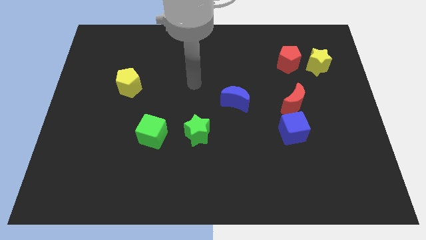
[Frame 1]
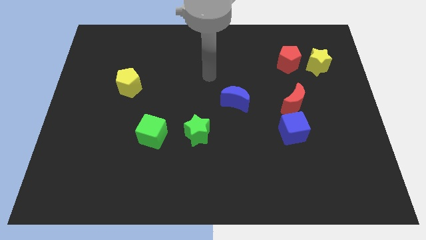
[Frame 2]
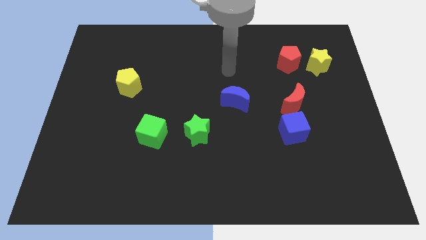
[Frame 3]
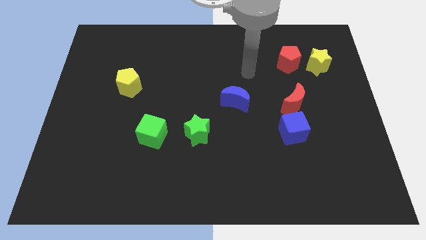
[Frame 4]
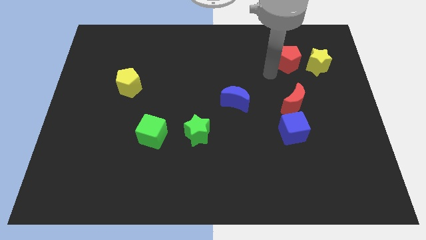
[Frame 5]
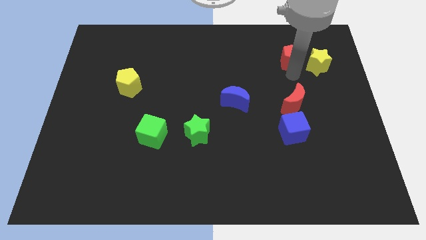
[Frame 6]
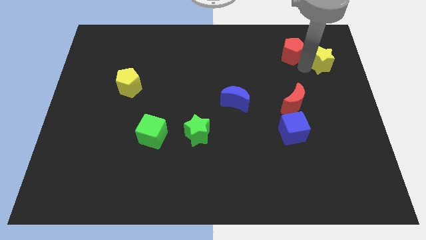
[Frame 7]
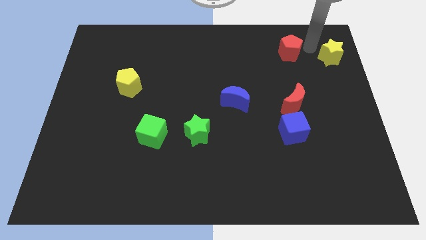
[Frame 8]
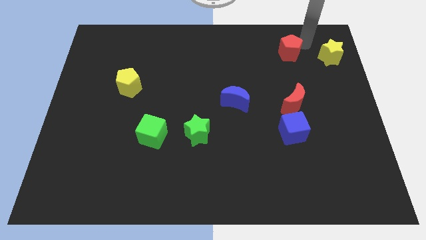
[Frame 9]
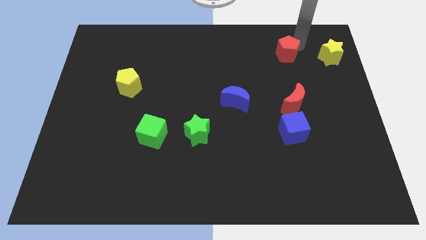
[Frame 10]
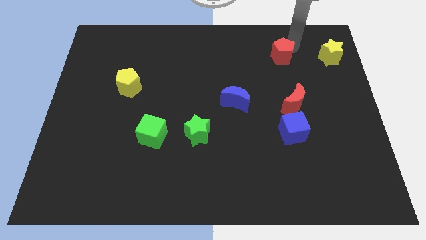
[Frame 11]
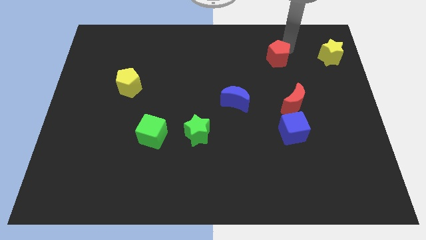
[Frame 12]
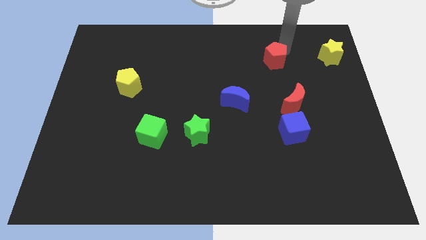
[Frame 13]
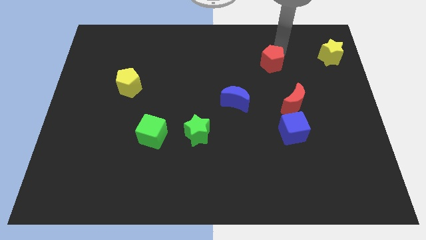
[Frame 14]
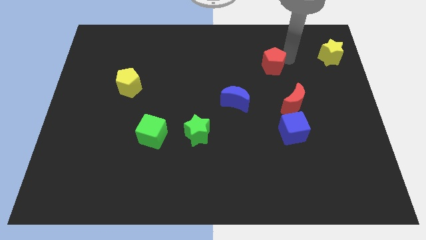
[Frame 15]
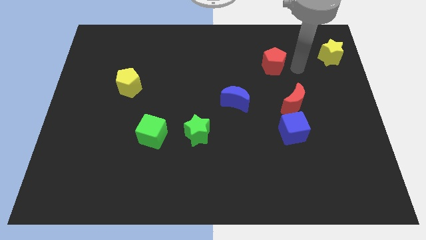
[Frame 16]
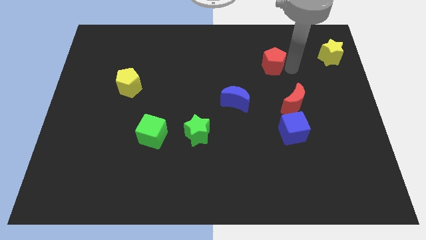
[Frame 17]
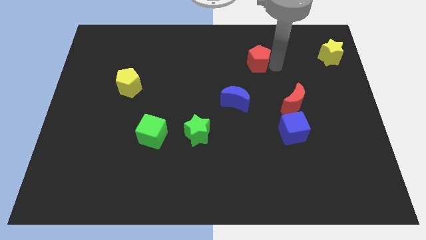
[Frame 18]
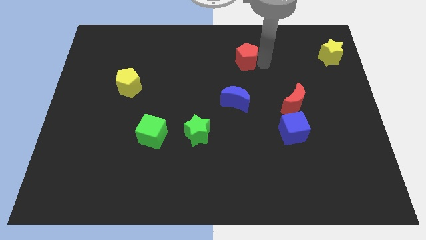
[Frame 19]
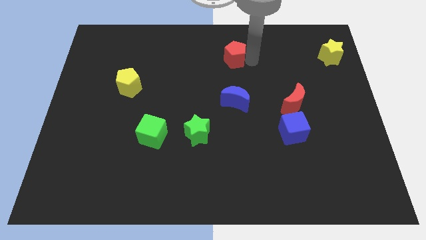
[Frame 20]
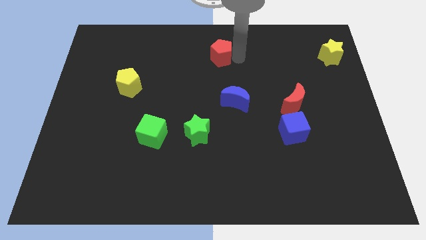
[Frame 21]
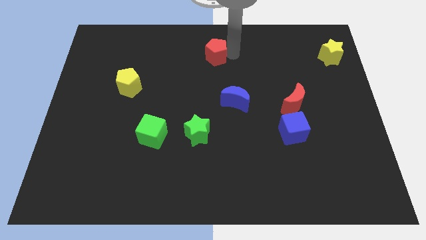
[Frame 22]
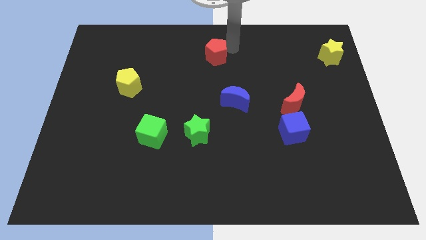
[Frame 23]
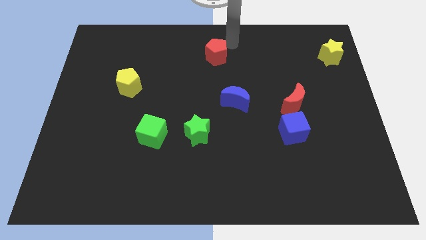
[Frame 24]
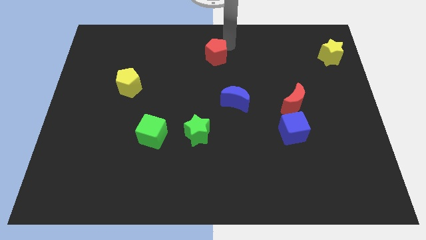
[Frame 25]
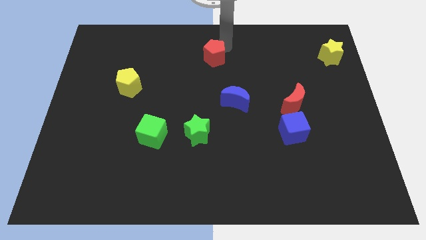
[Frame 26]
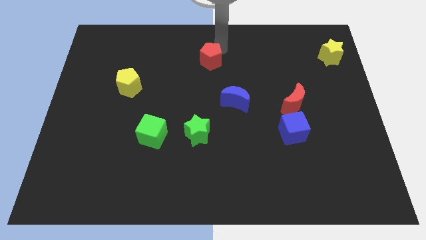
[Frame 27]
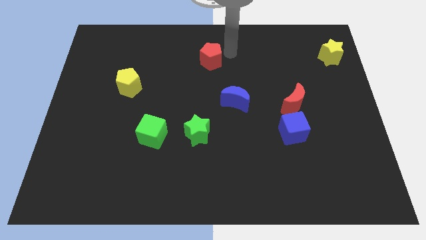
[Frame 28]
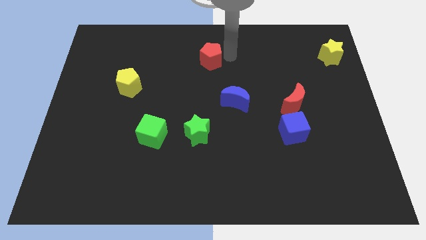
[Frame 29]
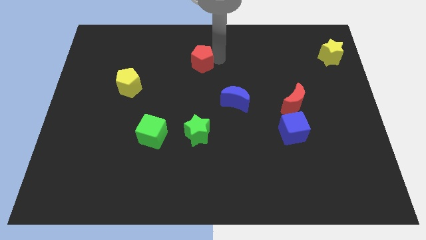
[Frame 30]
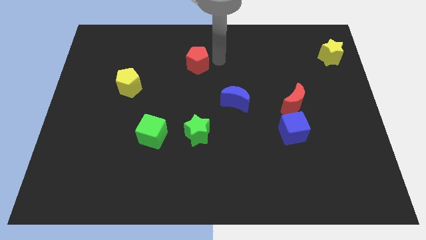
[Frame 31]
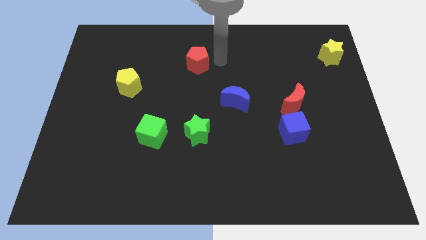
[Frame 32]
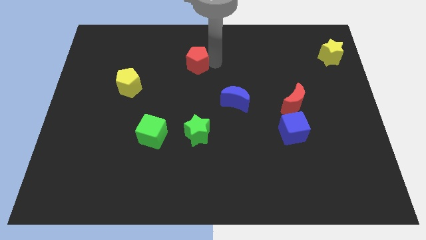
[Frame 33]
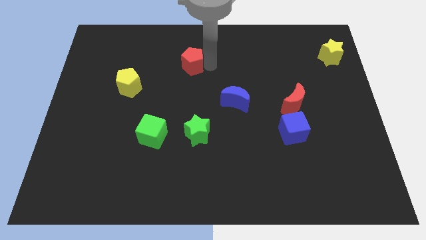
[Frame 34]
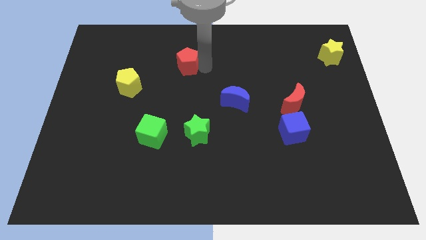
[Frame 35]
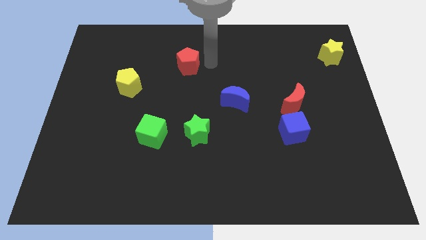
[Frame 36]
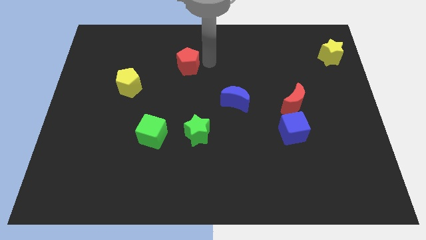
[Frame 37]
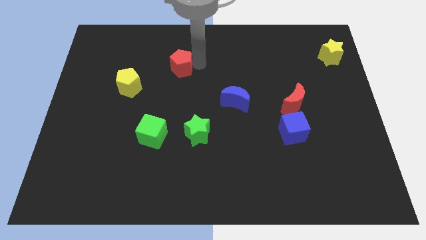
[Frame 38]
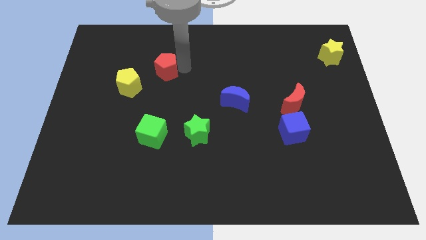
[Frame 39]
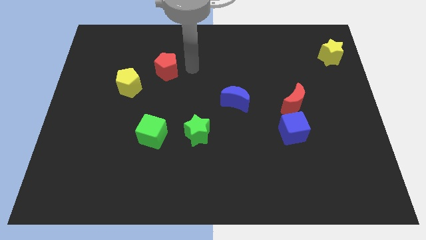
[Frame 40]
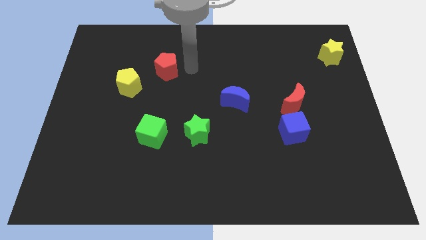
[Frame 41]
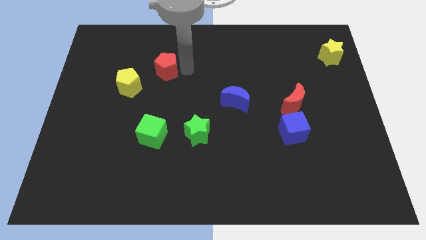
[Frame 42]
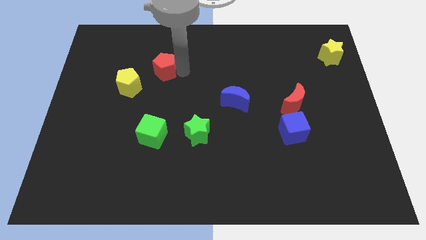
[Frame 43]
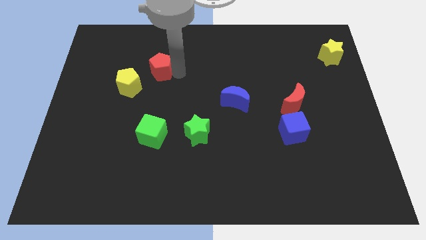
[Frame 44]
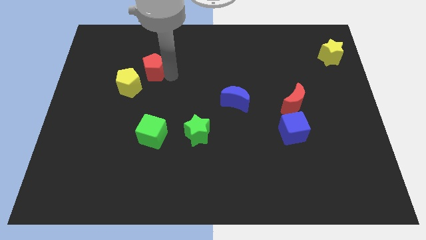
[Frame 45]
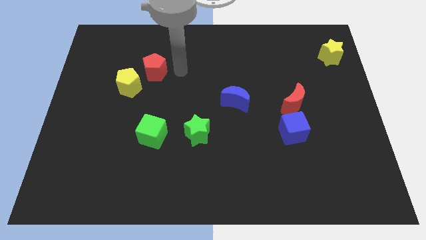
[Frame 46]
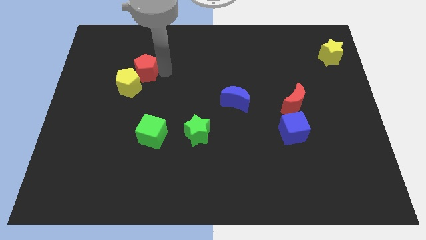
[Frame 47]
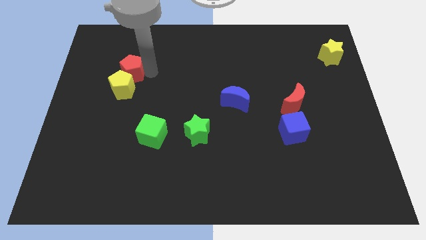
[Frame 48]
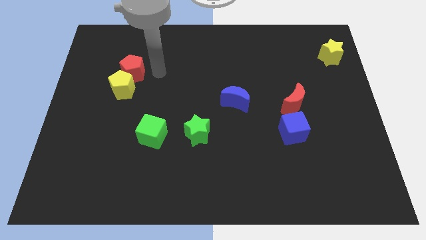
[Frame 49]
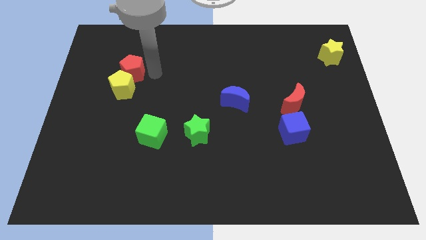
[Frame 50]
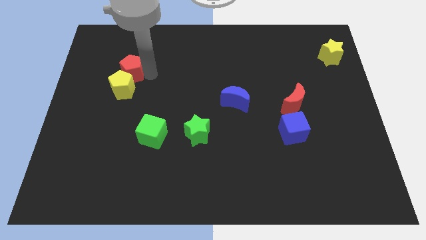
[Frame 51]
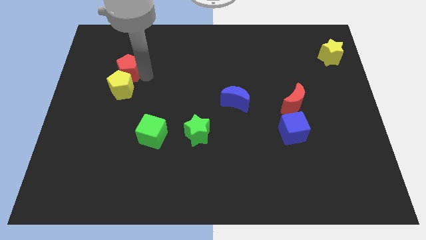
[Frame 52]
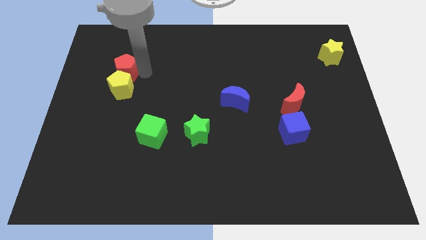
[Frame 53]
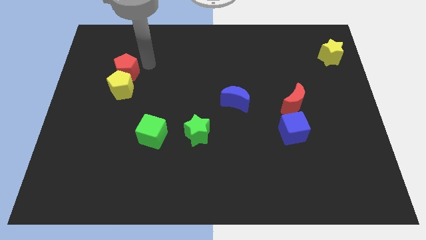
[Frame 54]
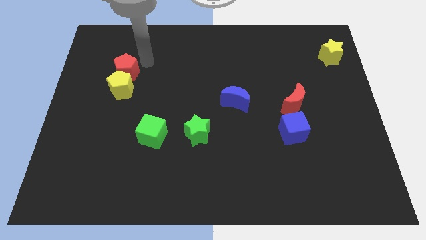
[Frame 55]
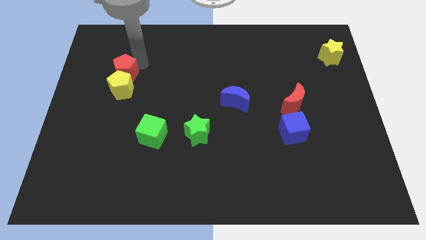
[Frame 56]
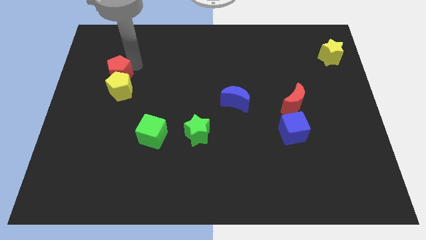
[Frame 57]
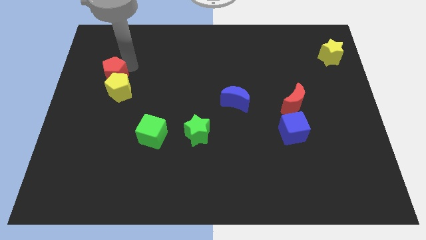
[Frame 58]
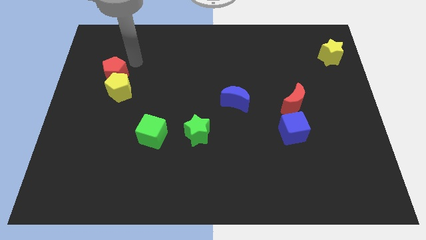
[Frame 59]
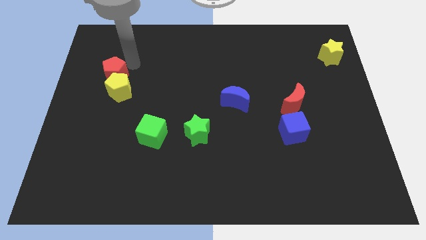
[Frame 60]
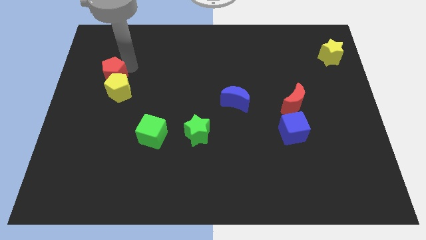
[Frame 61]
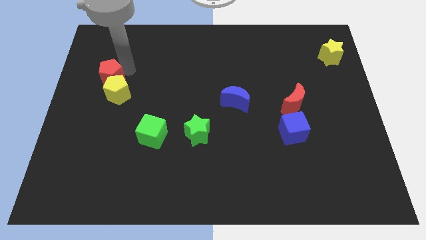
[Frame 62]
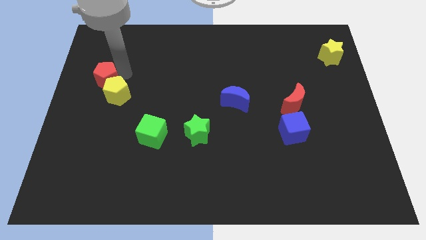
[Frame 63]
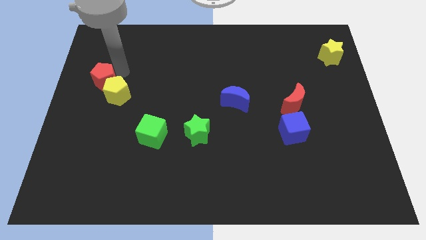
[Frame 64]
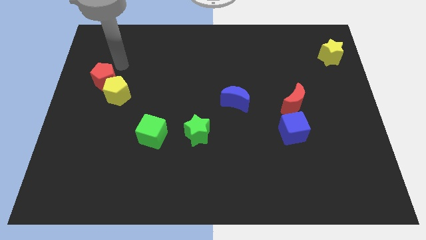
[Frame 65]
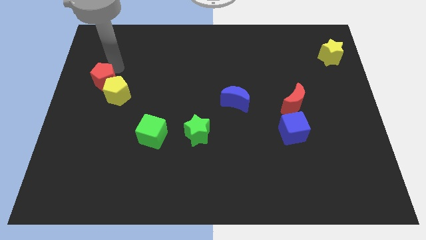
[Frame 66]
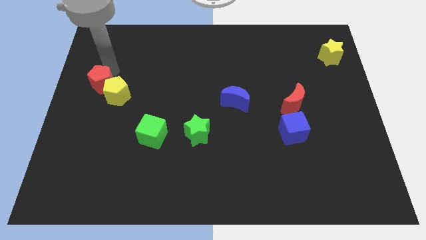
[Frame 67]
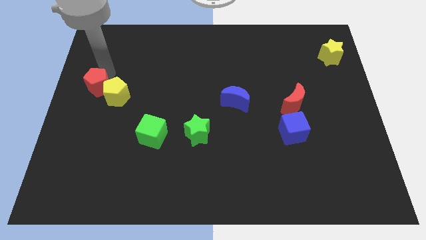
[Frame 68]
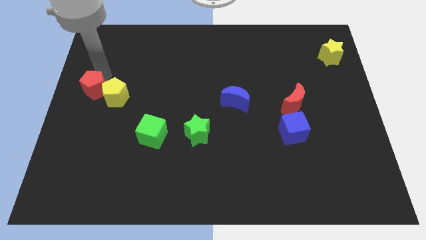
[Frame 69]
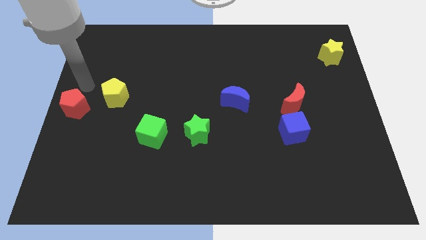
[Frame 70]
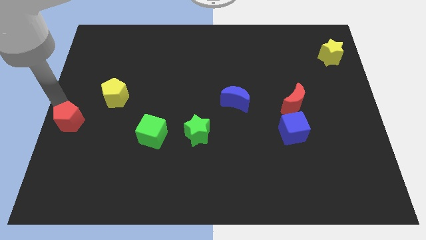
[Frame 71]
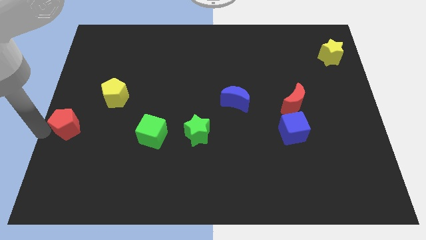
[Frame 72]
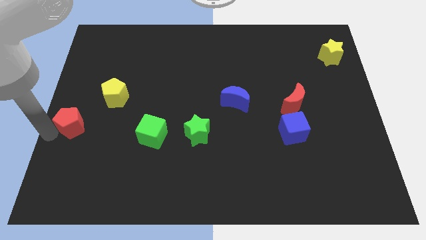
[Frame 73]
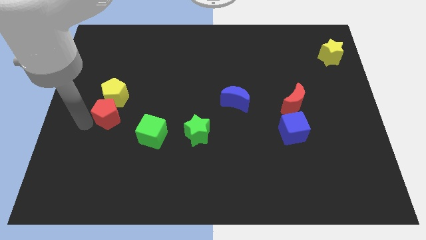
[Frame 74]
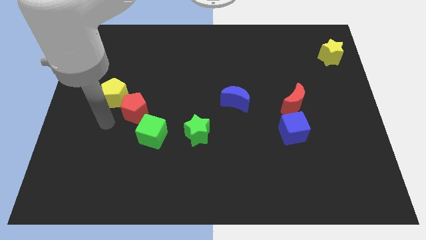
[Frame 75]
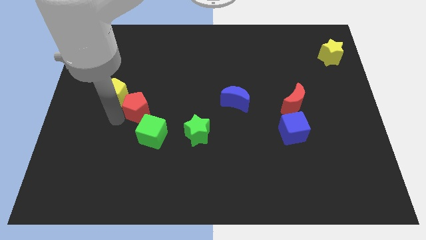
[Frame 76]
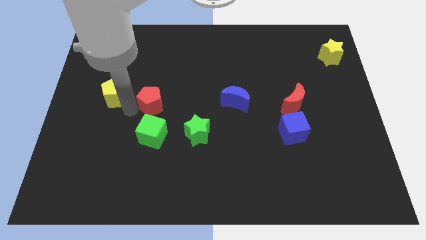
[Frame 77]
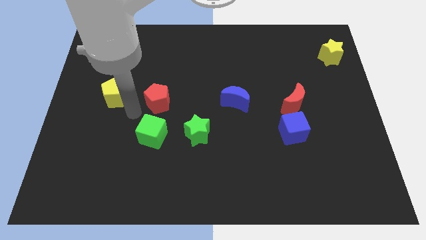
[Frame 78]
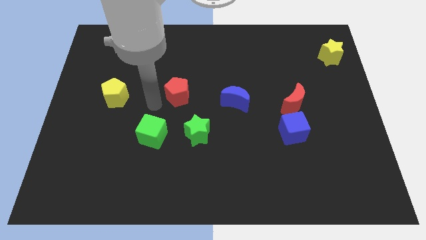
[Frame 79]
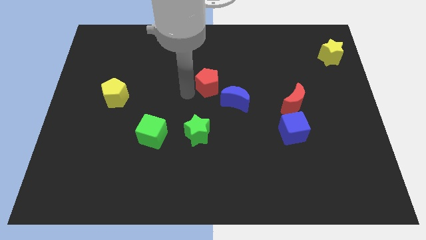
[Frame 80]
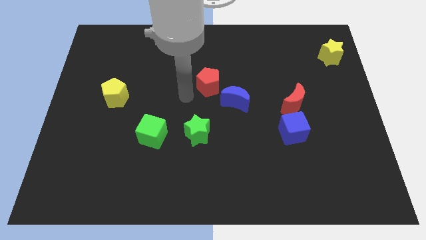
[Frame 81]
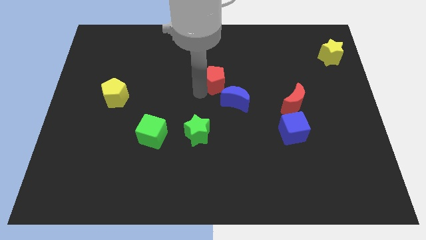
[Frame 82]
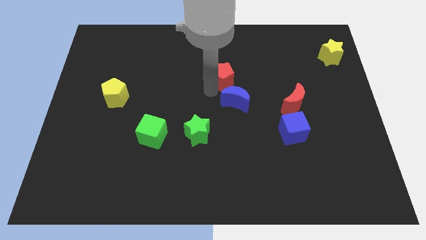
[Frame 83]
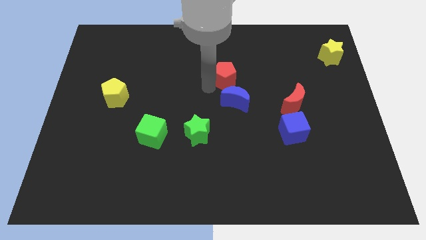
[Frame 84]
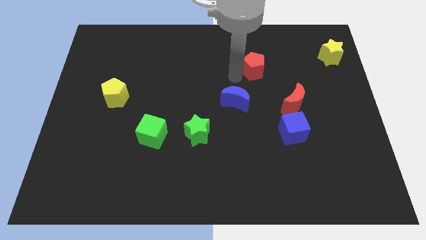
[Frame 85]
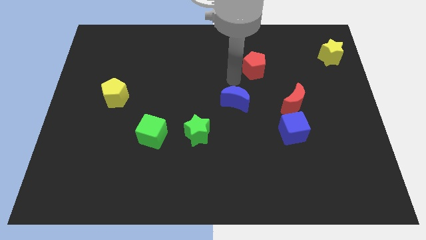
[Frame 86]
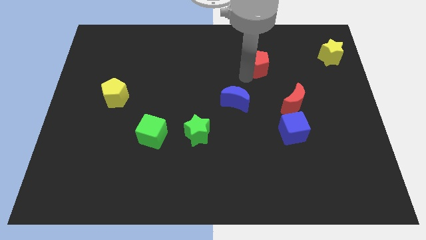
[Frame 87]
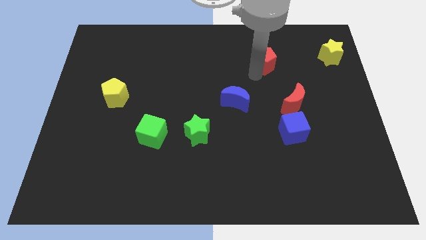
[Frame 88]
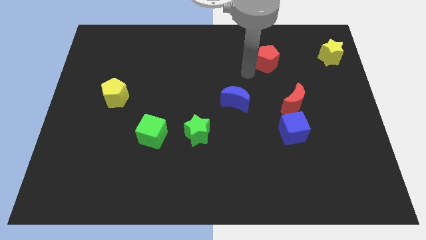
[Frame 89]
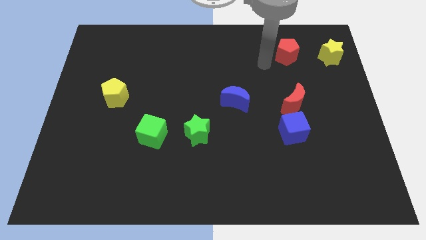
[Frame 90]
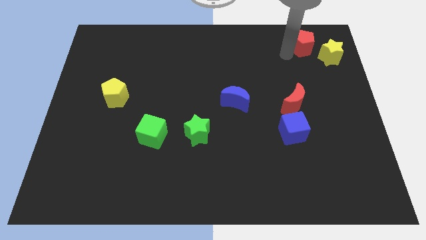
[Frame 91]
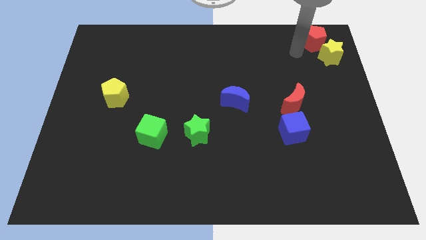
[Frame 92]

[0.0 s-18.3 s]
move the red pentagon to the top right
